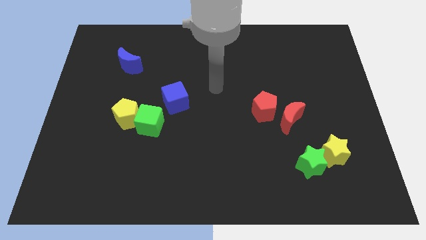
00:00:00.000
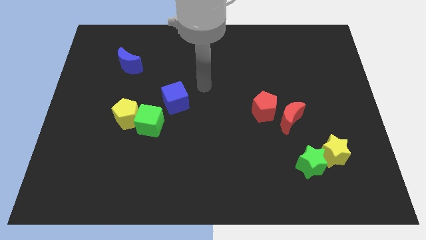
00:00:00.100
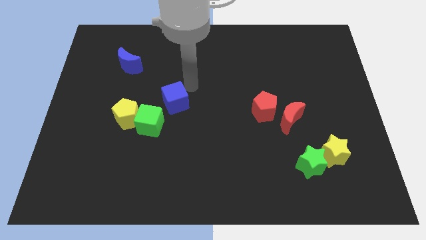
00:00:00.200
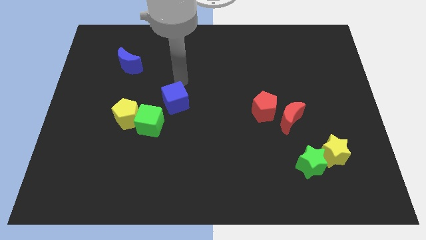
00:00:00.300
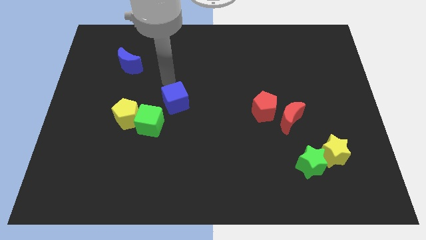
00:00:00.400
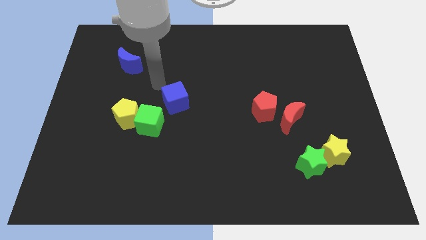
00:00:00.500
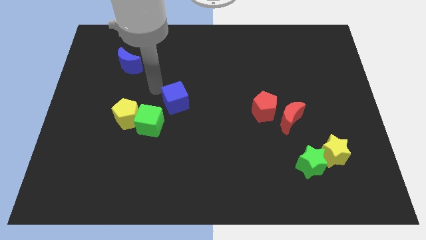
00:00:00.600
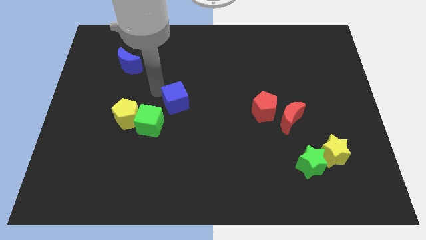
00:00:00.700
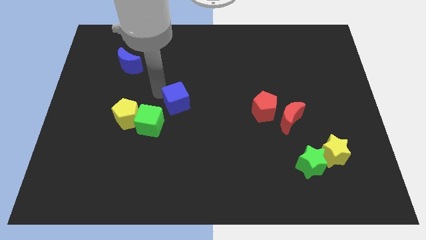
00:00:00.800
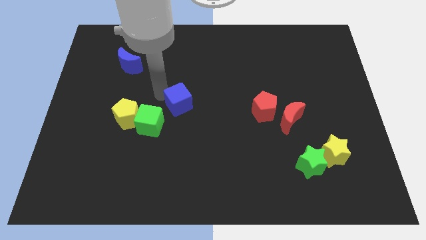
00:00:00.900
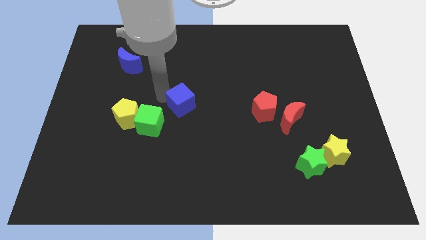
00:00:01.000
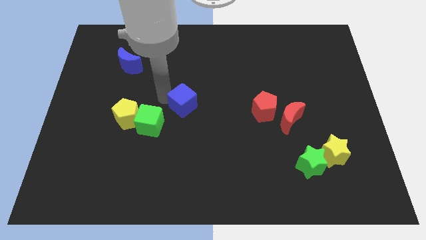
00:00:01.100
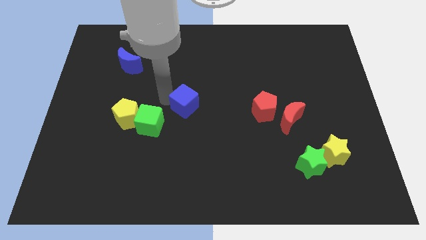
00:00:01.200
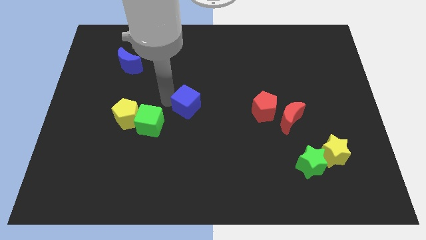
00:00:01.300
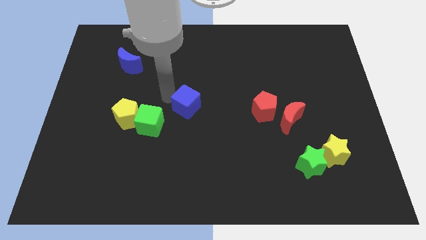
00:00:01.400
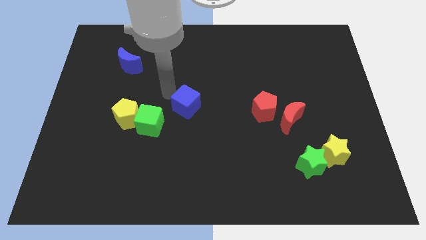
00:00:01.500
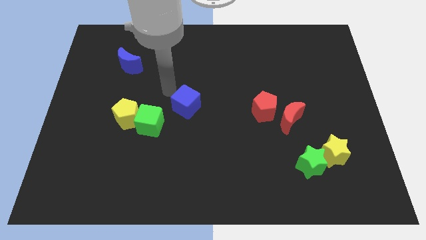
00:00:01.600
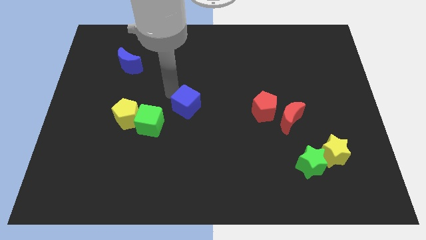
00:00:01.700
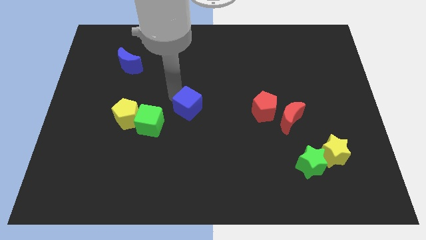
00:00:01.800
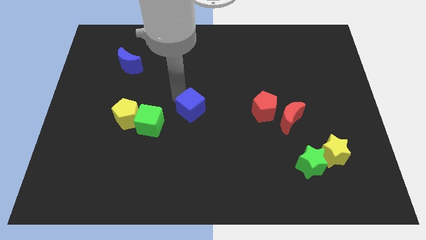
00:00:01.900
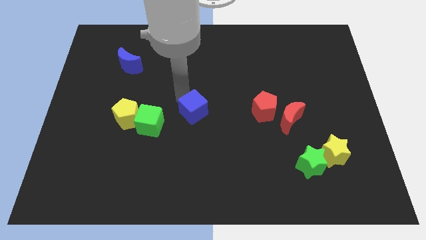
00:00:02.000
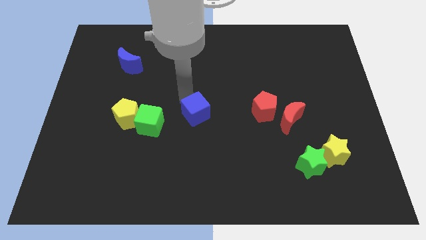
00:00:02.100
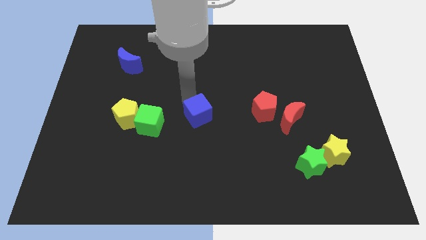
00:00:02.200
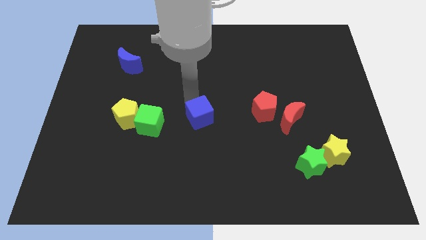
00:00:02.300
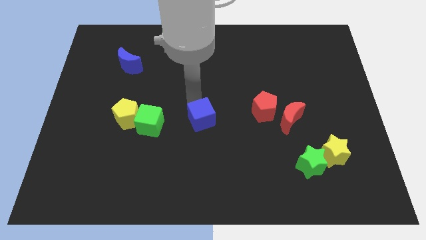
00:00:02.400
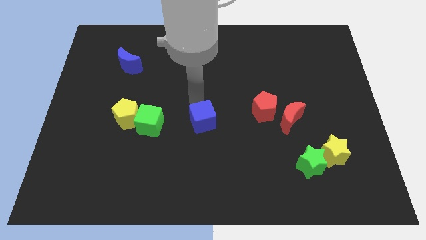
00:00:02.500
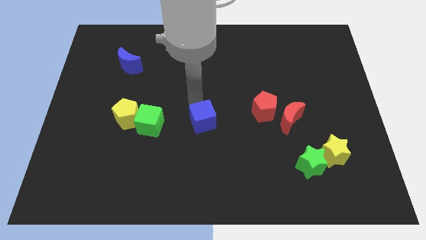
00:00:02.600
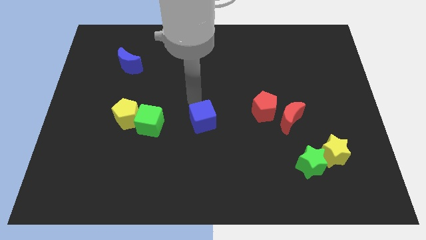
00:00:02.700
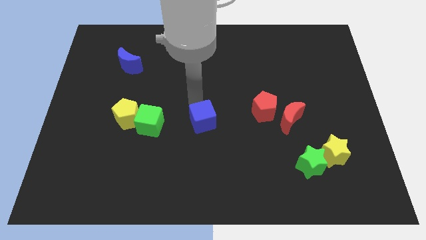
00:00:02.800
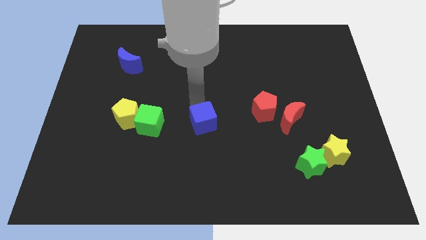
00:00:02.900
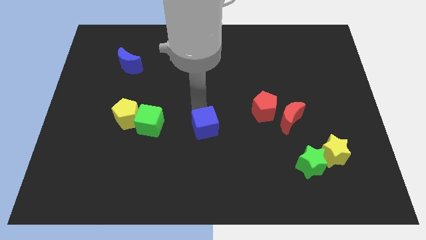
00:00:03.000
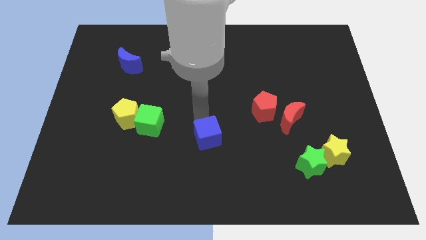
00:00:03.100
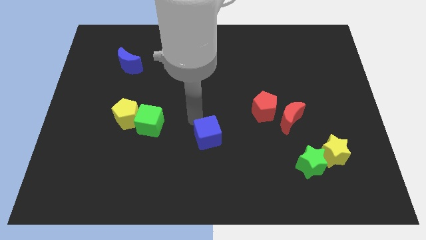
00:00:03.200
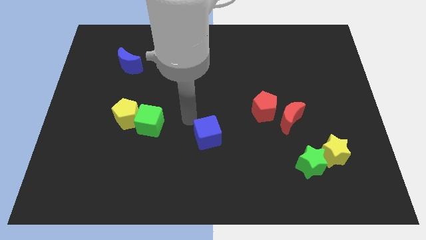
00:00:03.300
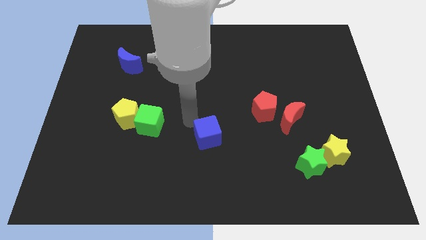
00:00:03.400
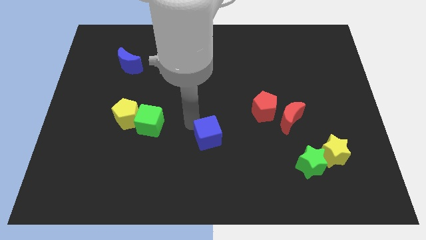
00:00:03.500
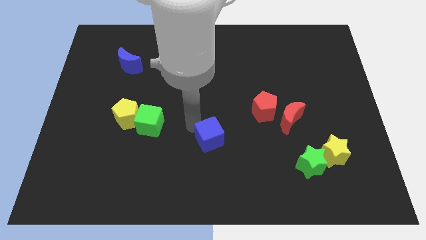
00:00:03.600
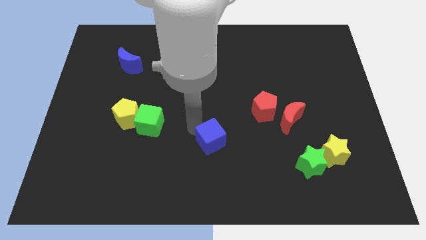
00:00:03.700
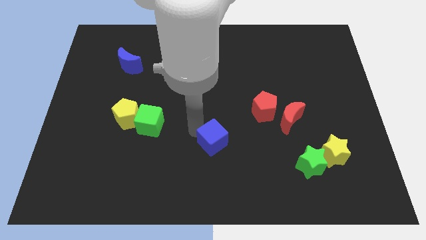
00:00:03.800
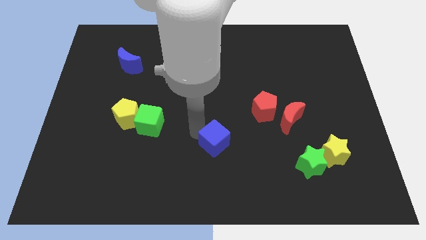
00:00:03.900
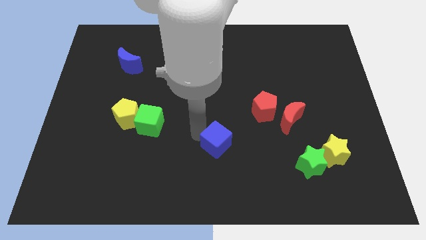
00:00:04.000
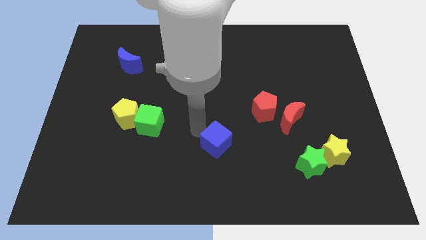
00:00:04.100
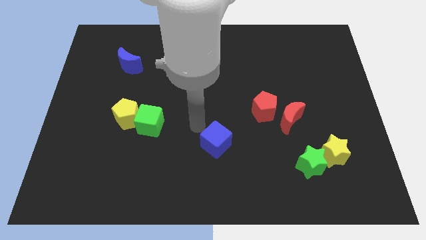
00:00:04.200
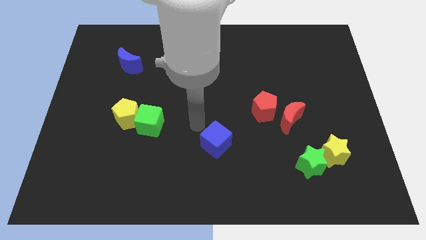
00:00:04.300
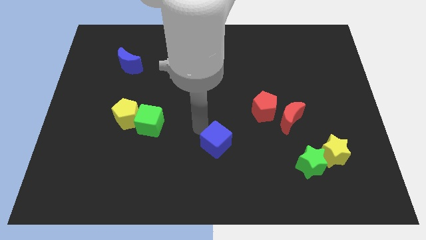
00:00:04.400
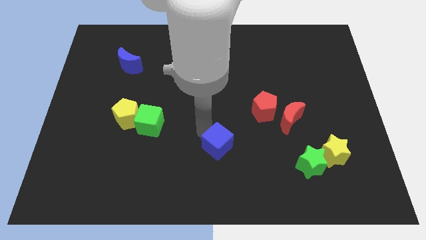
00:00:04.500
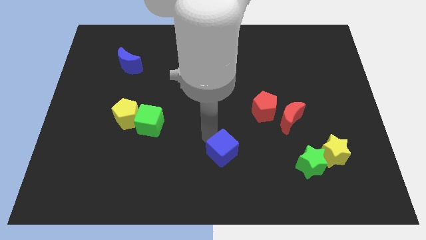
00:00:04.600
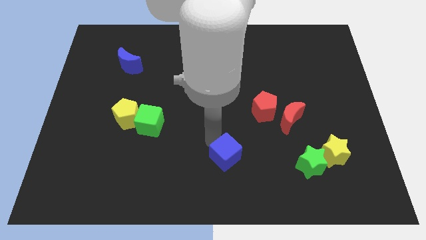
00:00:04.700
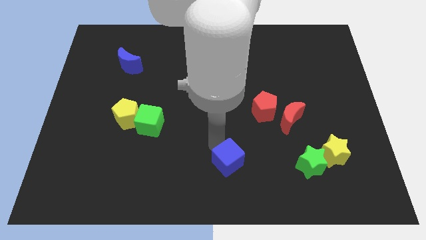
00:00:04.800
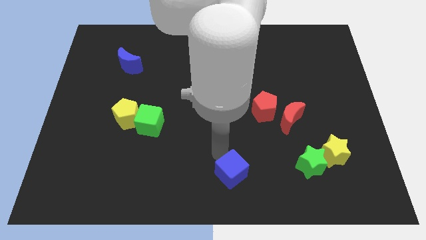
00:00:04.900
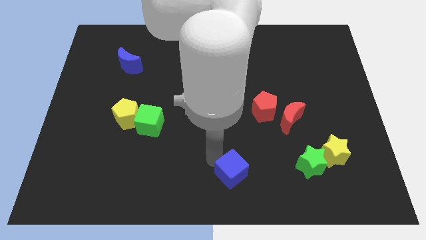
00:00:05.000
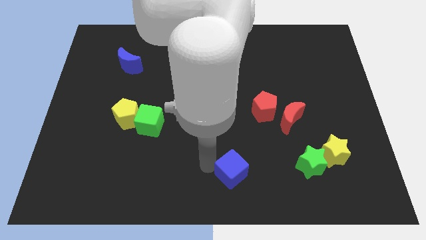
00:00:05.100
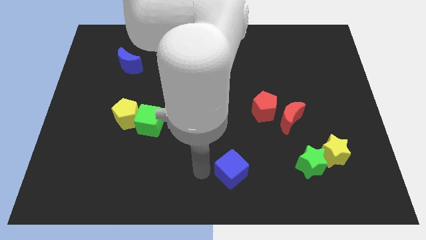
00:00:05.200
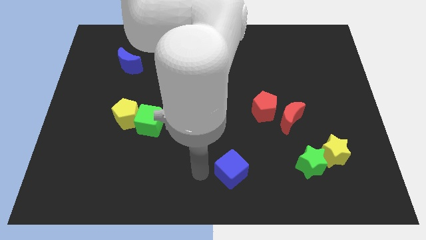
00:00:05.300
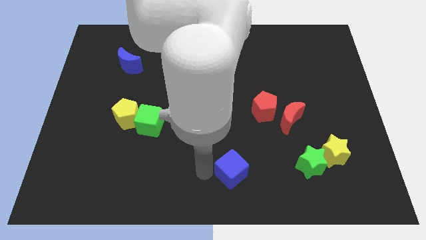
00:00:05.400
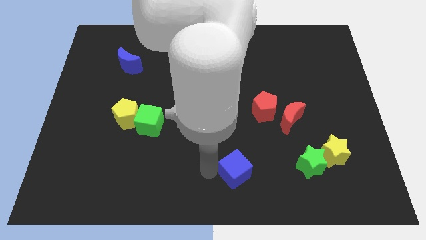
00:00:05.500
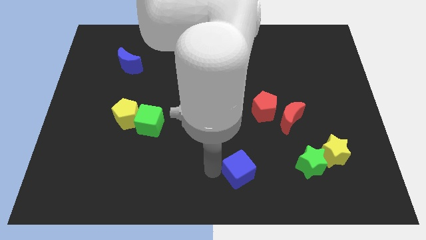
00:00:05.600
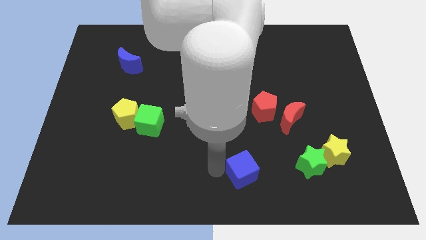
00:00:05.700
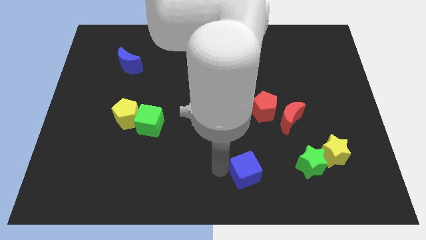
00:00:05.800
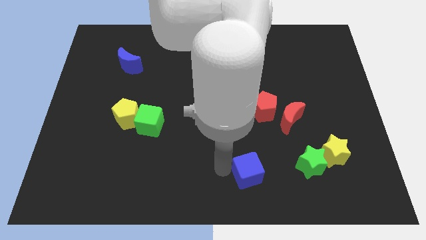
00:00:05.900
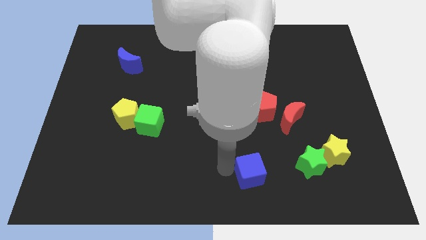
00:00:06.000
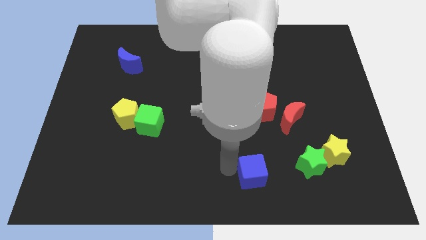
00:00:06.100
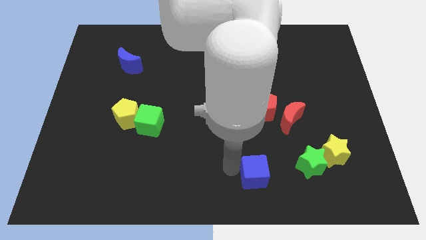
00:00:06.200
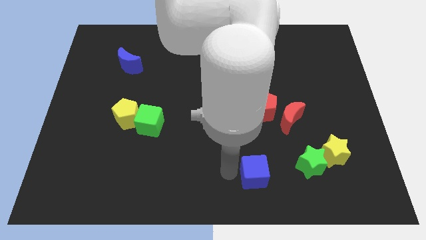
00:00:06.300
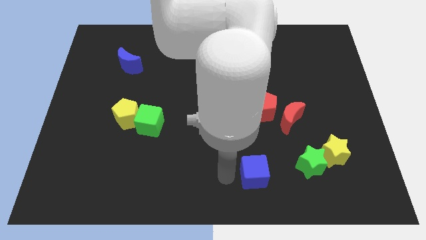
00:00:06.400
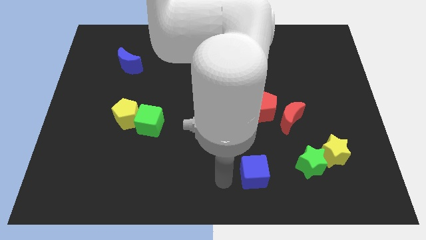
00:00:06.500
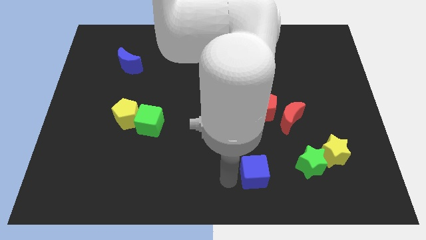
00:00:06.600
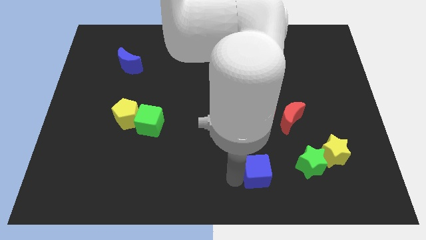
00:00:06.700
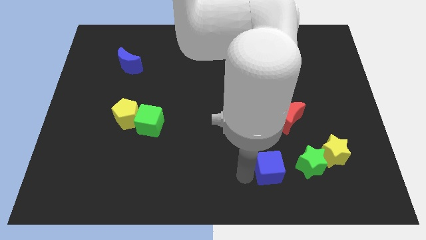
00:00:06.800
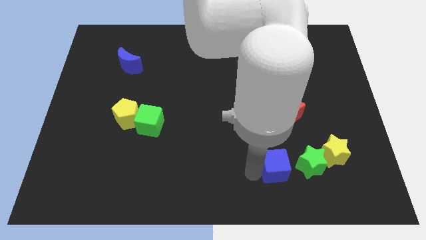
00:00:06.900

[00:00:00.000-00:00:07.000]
move the blue cube to the bottom side of the red moon
